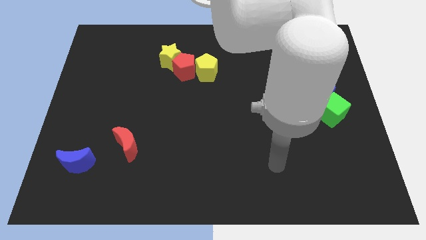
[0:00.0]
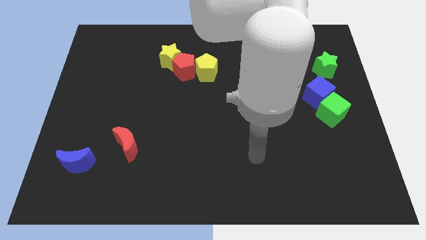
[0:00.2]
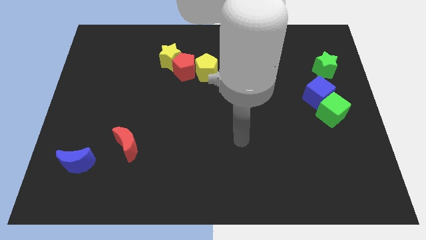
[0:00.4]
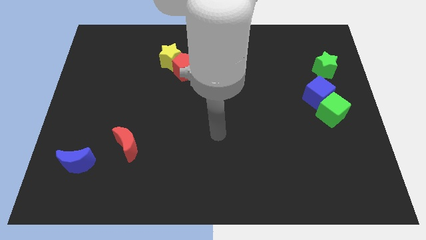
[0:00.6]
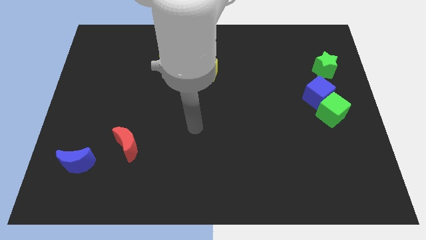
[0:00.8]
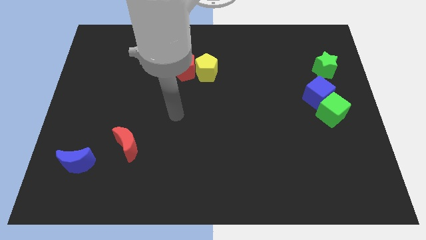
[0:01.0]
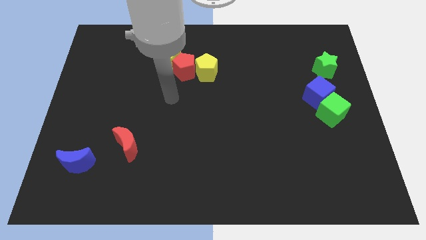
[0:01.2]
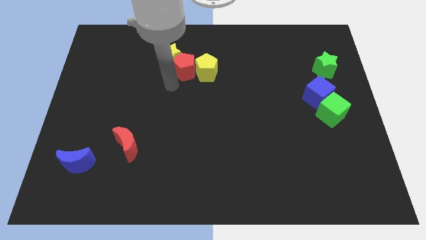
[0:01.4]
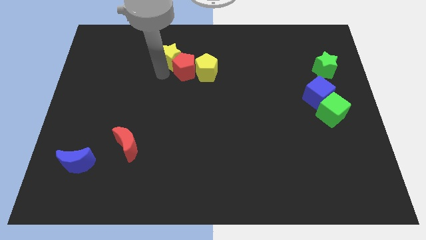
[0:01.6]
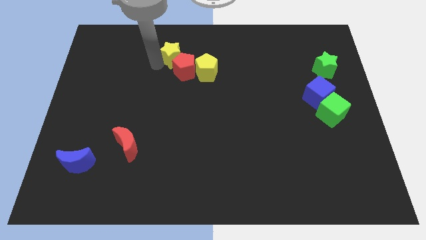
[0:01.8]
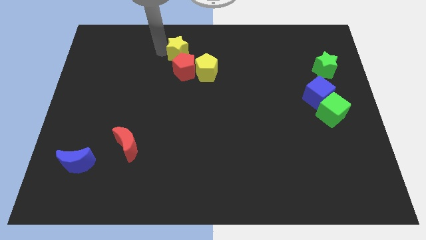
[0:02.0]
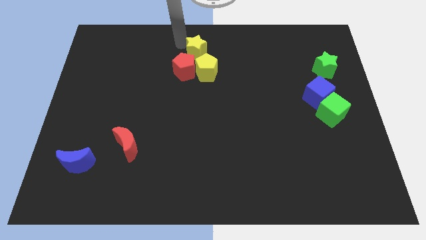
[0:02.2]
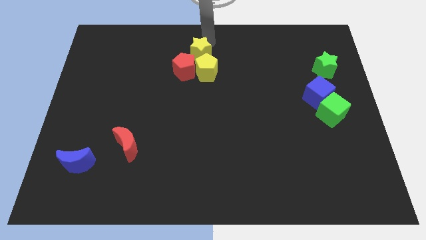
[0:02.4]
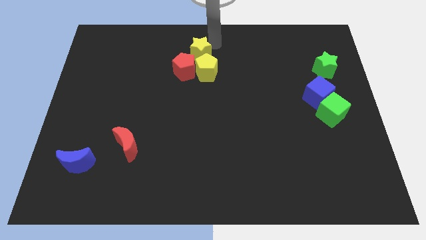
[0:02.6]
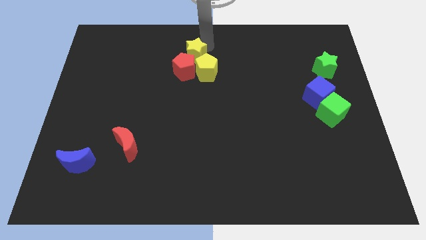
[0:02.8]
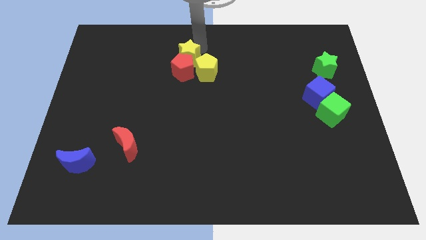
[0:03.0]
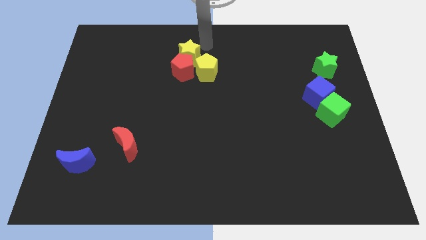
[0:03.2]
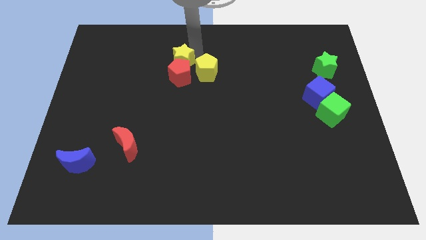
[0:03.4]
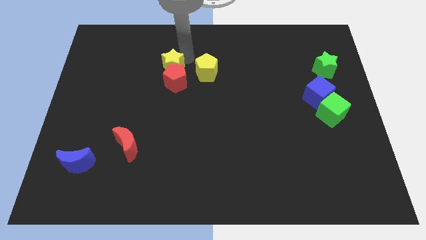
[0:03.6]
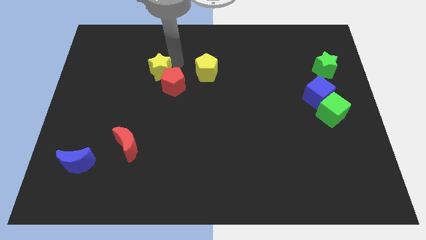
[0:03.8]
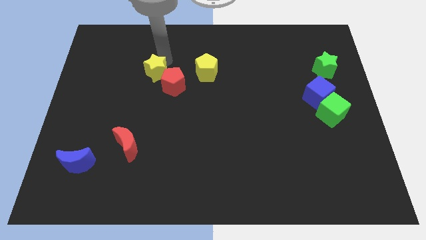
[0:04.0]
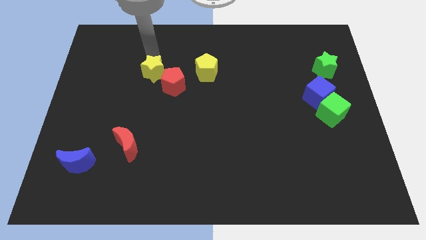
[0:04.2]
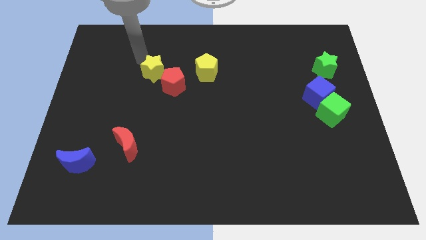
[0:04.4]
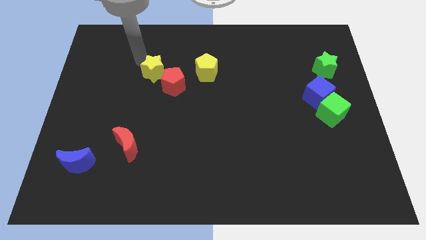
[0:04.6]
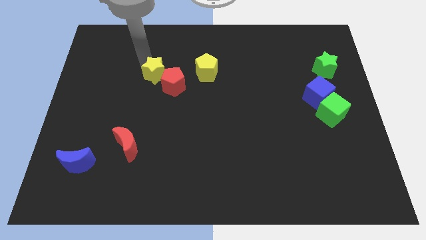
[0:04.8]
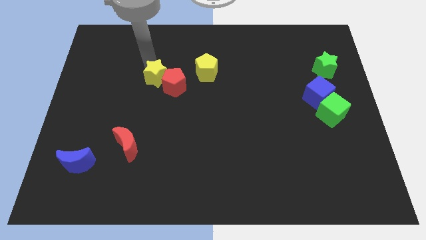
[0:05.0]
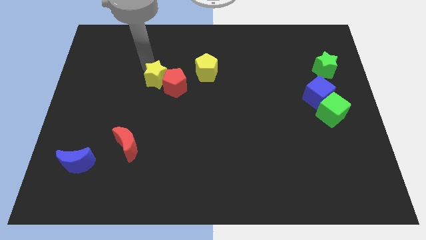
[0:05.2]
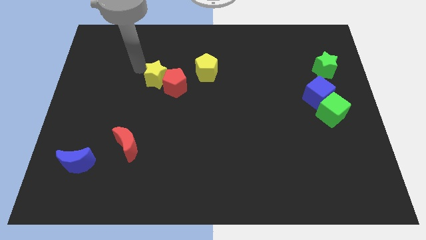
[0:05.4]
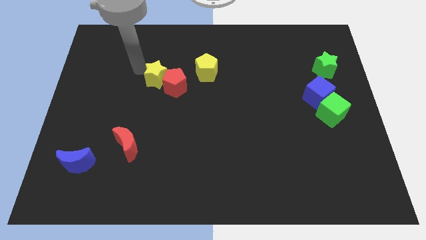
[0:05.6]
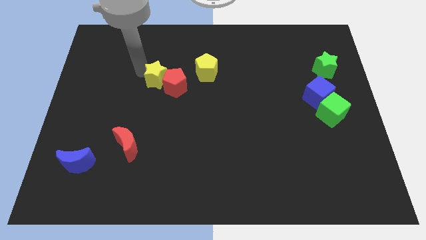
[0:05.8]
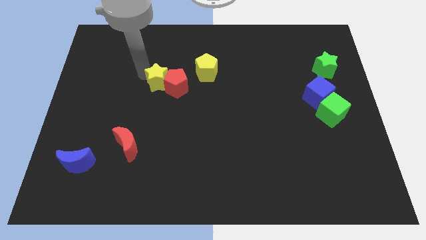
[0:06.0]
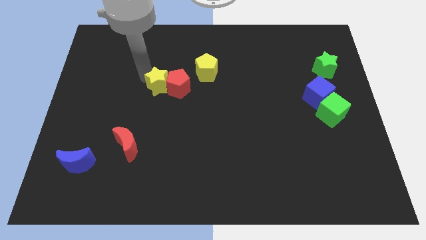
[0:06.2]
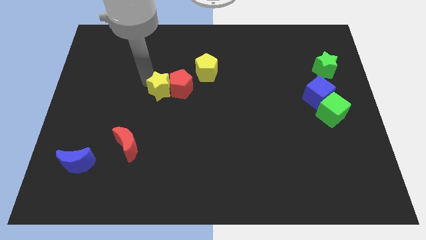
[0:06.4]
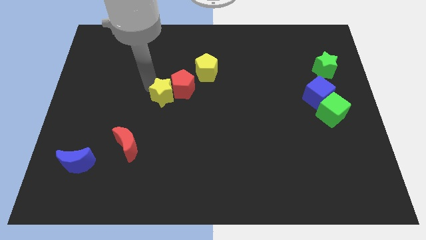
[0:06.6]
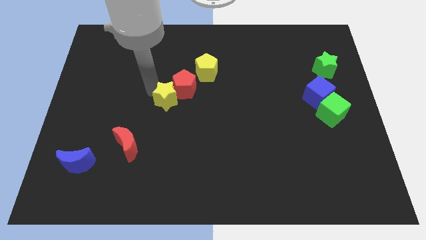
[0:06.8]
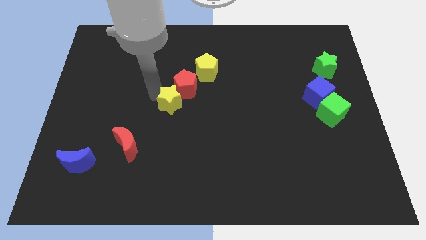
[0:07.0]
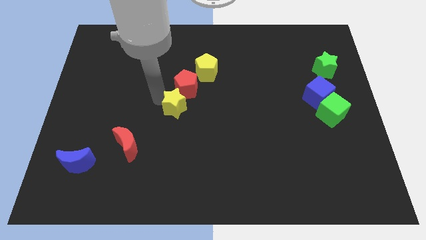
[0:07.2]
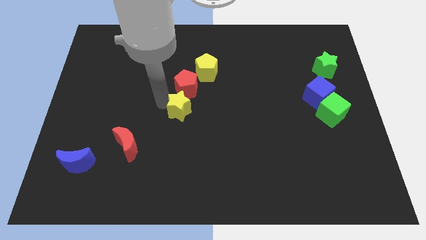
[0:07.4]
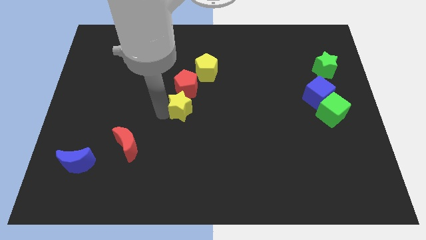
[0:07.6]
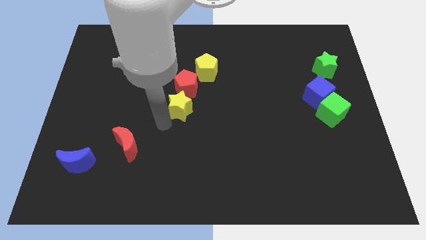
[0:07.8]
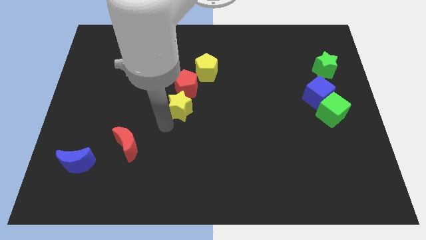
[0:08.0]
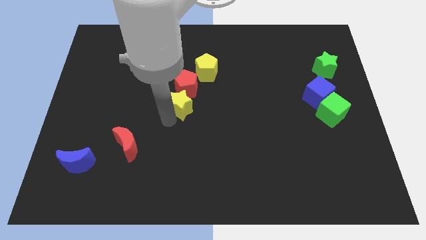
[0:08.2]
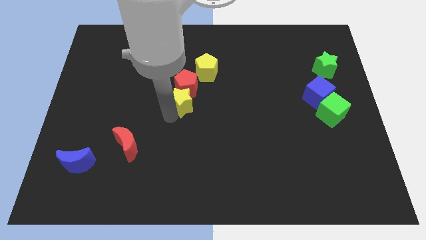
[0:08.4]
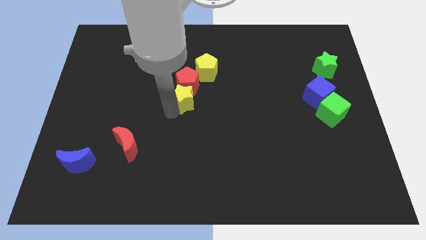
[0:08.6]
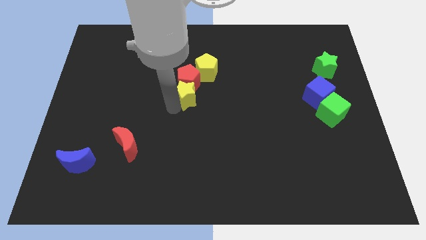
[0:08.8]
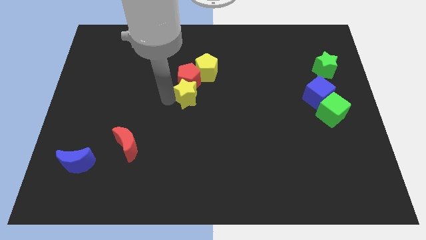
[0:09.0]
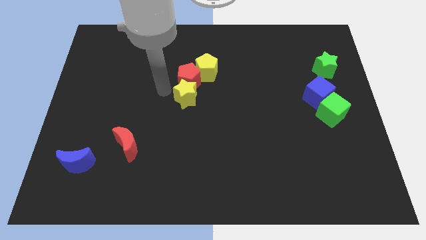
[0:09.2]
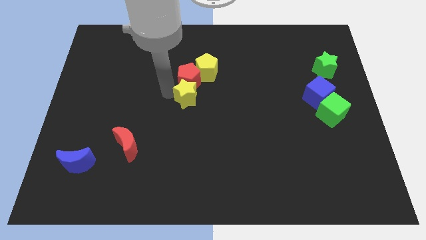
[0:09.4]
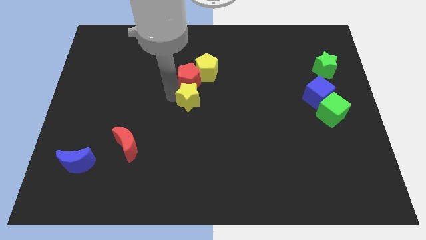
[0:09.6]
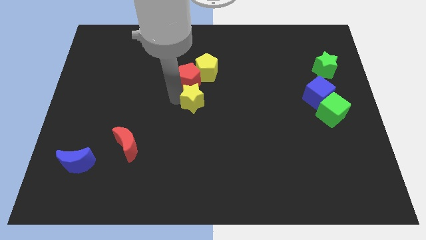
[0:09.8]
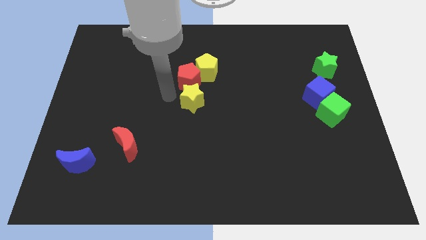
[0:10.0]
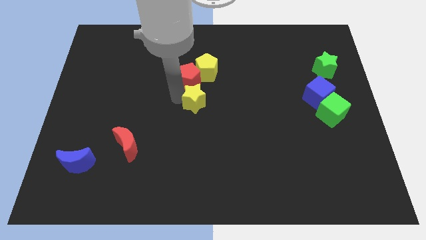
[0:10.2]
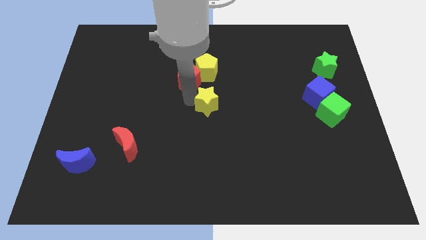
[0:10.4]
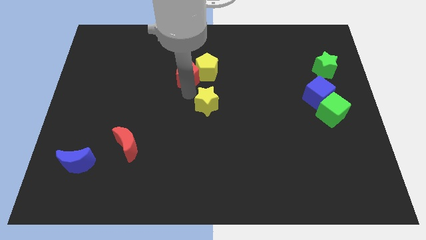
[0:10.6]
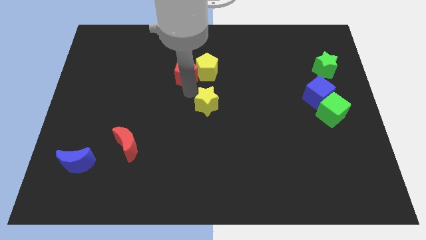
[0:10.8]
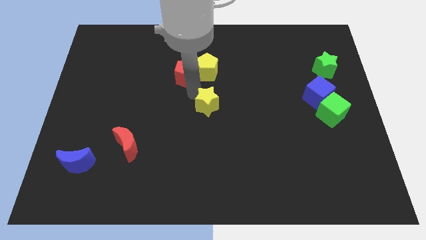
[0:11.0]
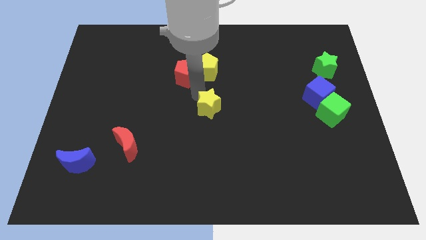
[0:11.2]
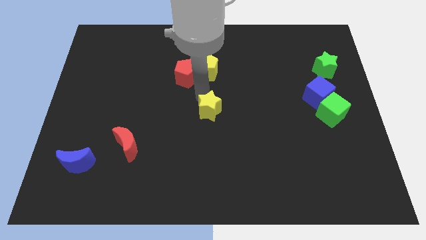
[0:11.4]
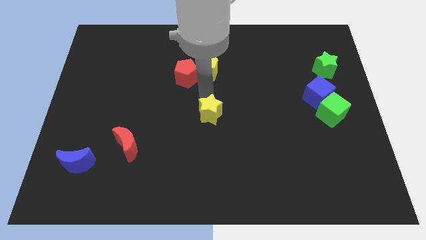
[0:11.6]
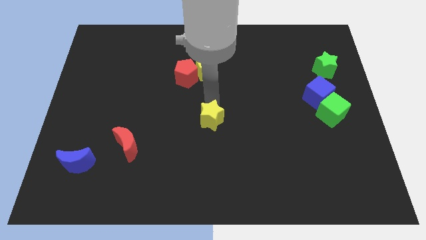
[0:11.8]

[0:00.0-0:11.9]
move the yellow star downwards and right diagonally

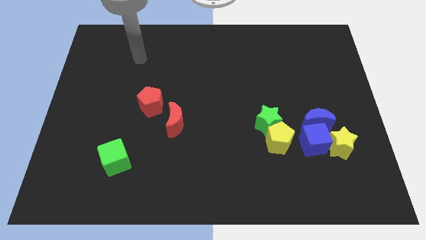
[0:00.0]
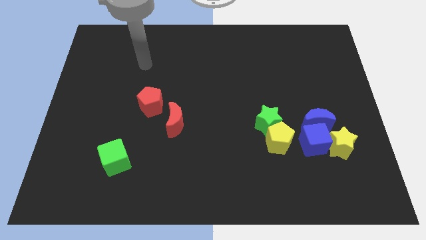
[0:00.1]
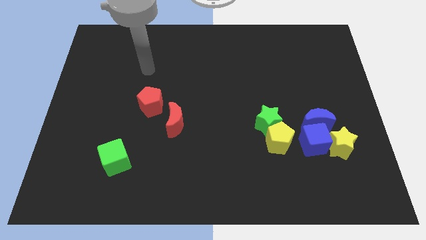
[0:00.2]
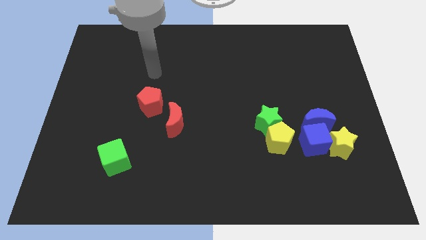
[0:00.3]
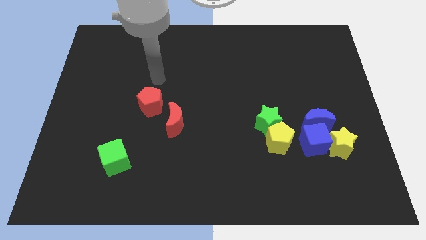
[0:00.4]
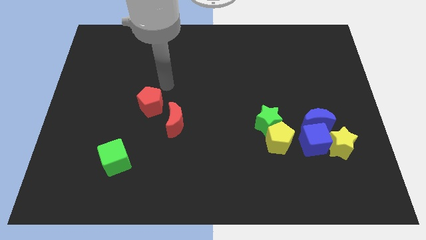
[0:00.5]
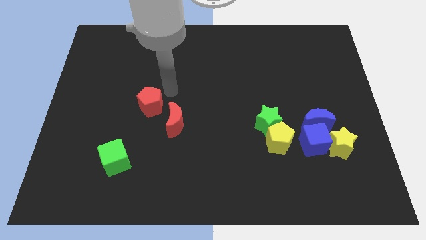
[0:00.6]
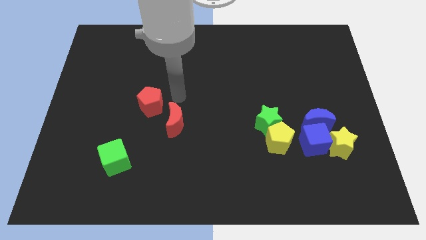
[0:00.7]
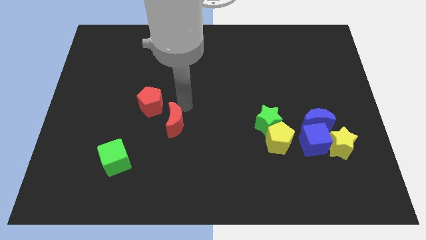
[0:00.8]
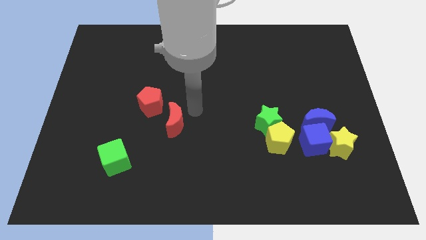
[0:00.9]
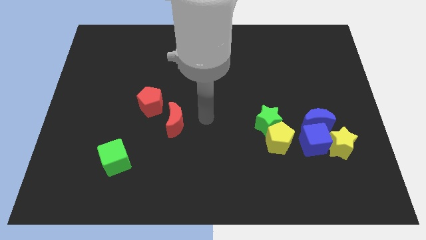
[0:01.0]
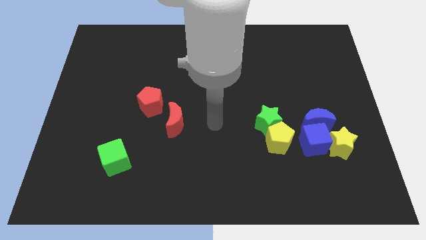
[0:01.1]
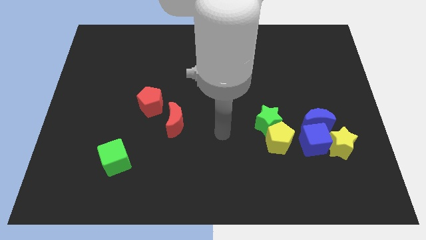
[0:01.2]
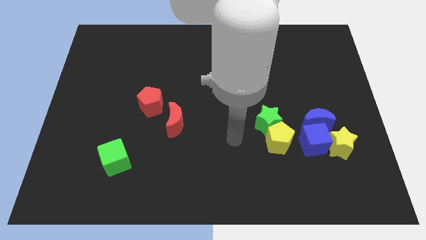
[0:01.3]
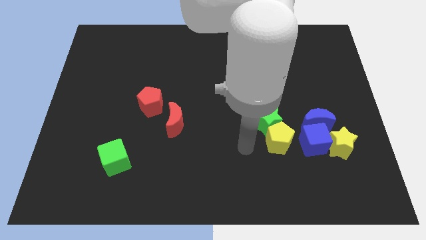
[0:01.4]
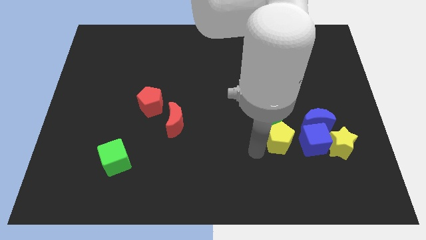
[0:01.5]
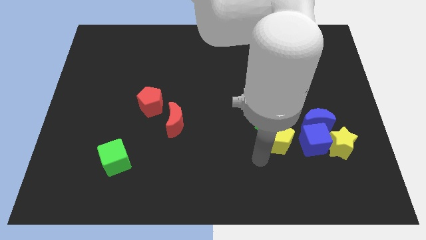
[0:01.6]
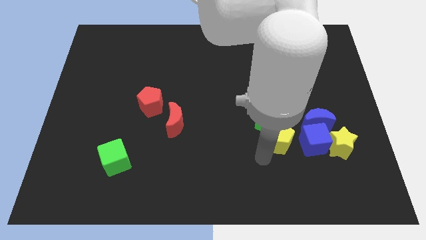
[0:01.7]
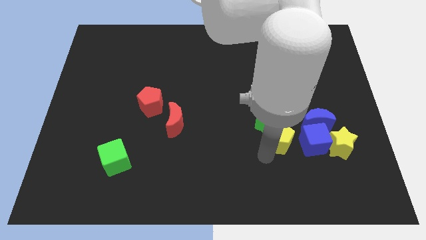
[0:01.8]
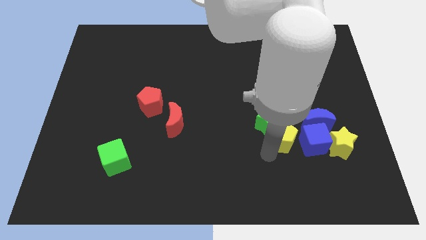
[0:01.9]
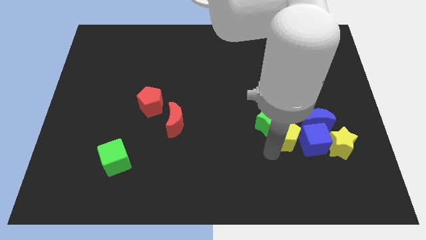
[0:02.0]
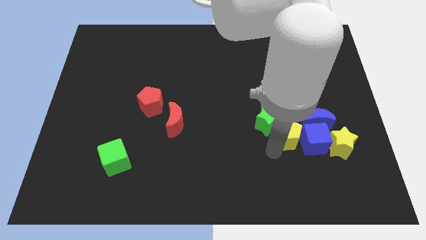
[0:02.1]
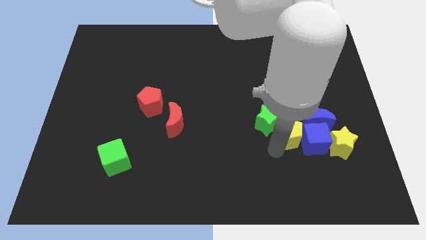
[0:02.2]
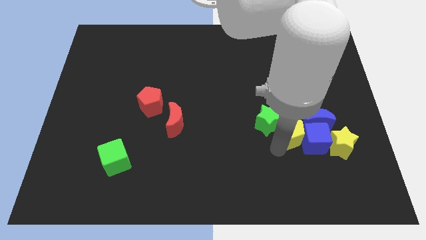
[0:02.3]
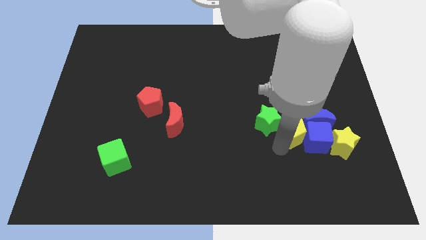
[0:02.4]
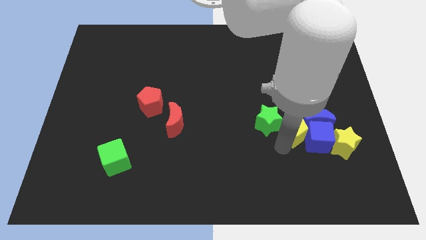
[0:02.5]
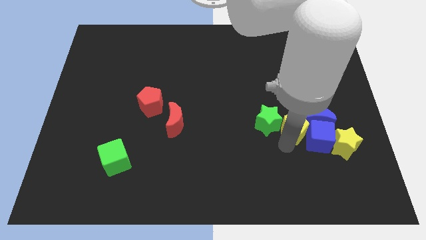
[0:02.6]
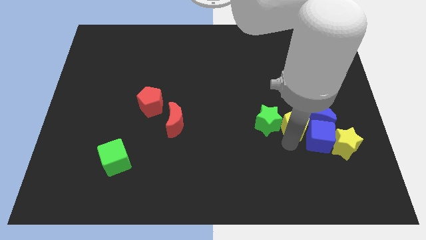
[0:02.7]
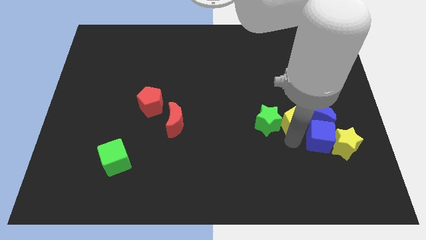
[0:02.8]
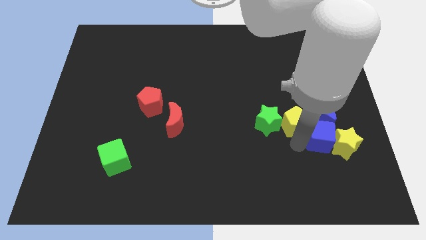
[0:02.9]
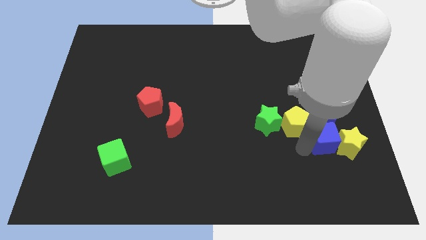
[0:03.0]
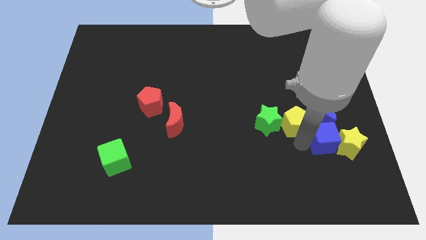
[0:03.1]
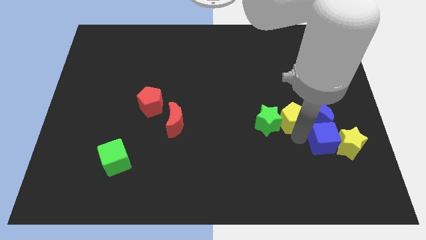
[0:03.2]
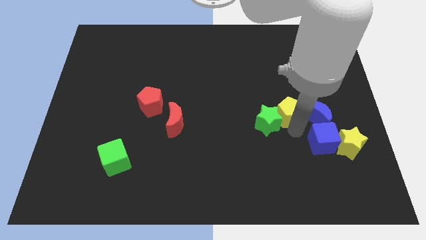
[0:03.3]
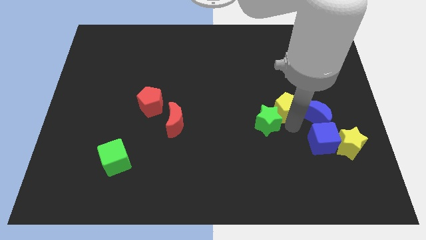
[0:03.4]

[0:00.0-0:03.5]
push the yellow pentagon somewhat upwards
